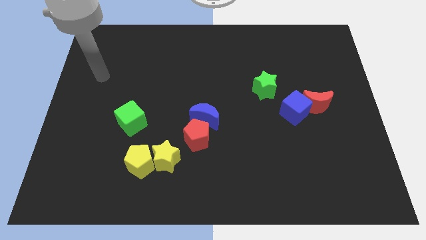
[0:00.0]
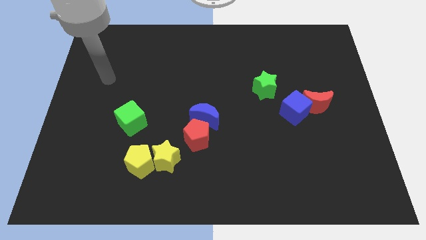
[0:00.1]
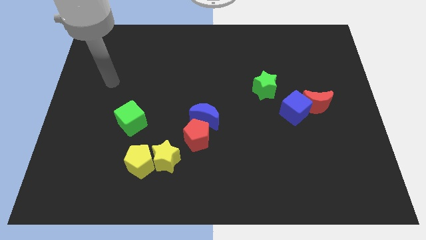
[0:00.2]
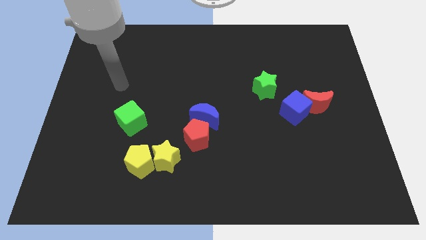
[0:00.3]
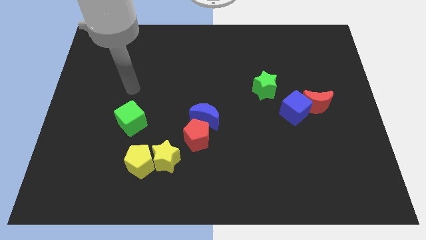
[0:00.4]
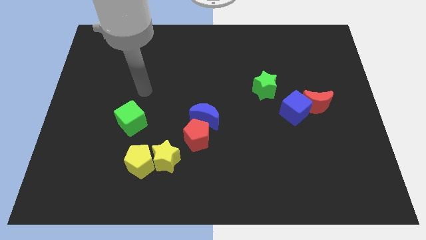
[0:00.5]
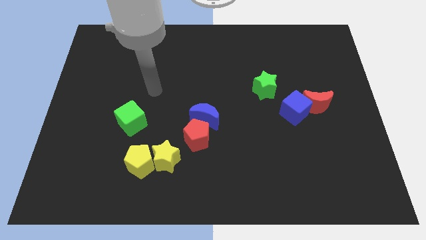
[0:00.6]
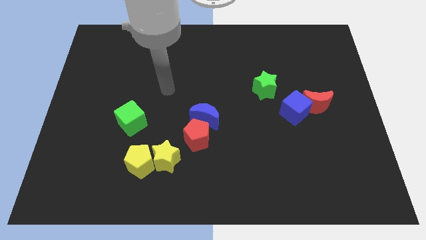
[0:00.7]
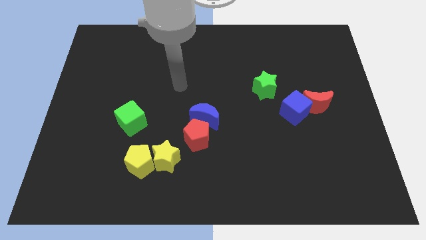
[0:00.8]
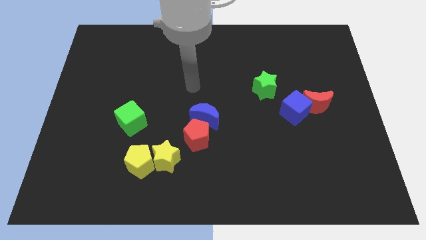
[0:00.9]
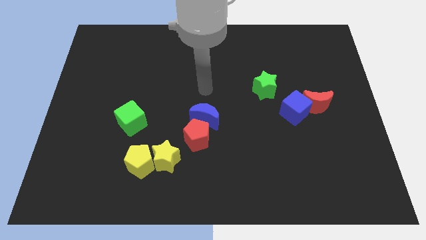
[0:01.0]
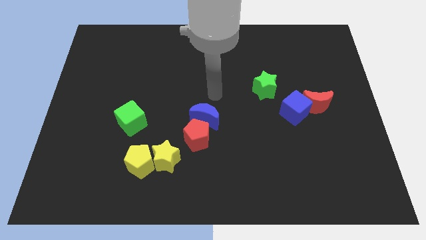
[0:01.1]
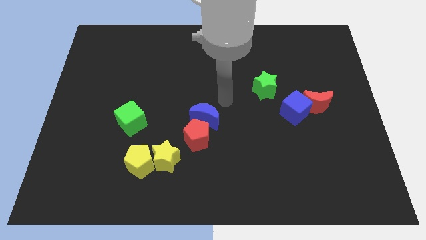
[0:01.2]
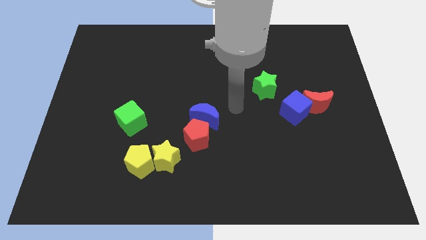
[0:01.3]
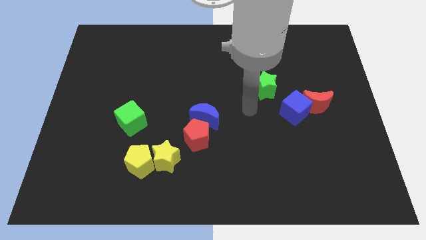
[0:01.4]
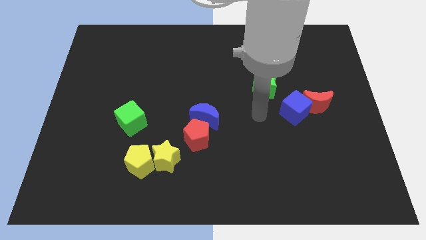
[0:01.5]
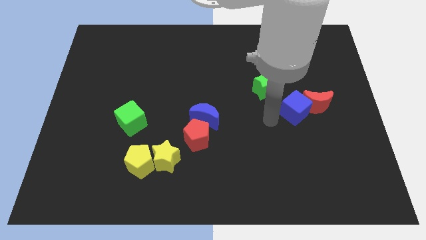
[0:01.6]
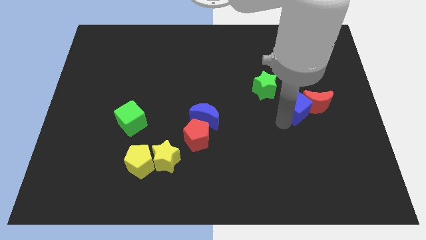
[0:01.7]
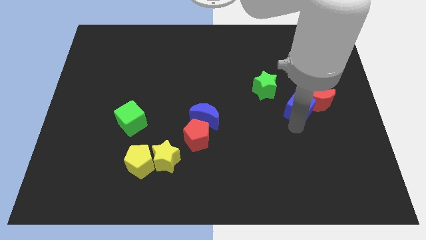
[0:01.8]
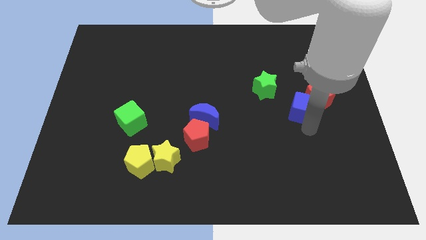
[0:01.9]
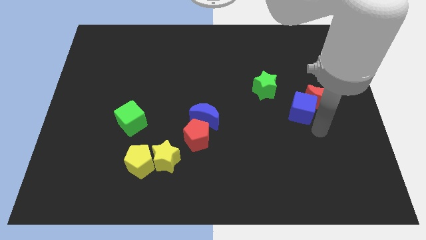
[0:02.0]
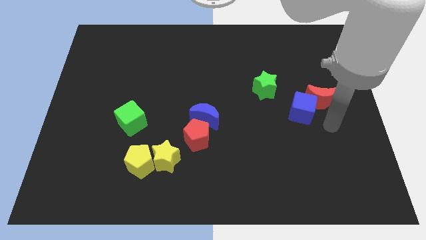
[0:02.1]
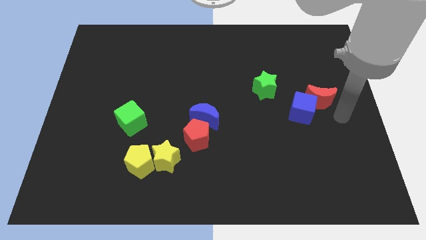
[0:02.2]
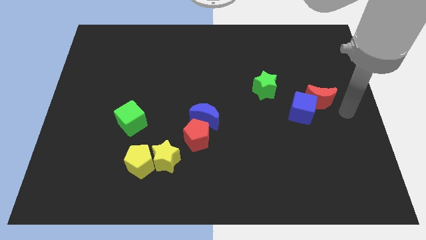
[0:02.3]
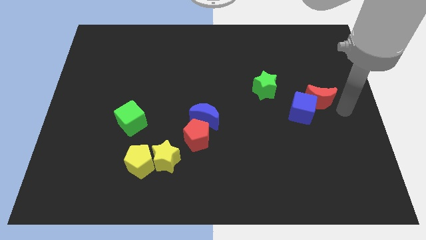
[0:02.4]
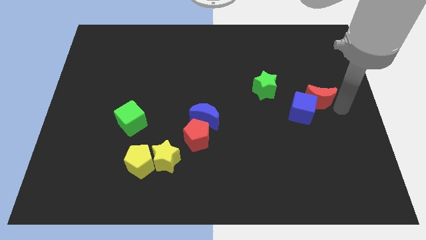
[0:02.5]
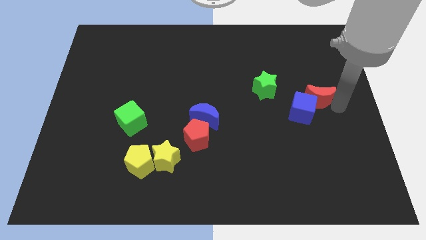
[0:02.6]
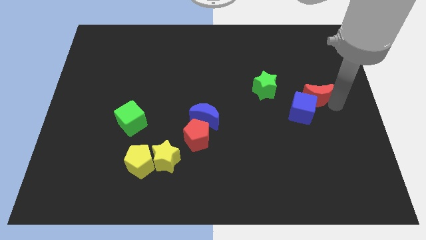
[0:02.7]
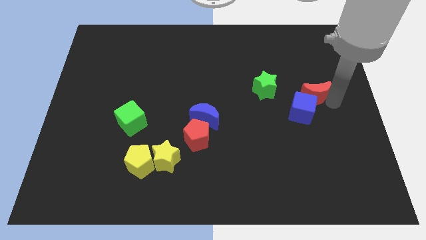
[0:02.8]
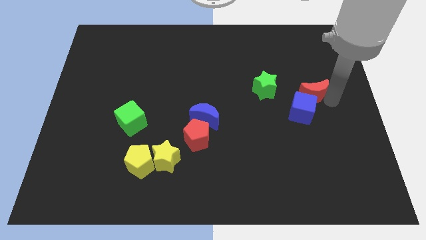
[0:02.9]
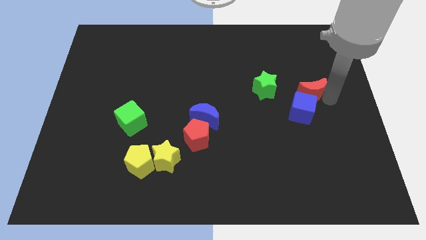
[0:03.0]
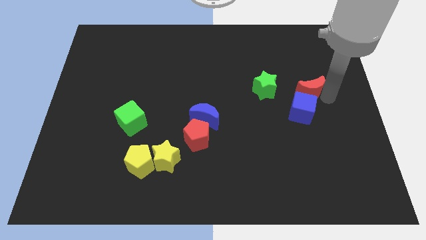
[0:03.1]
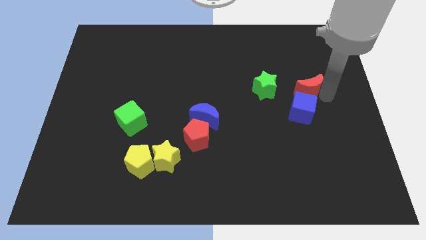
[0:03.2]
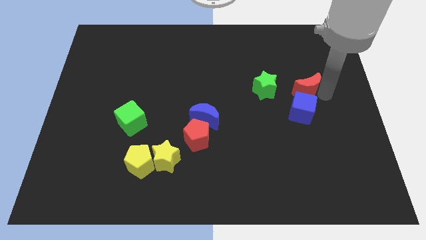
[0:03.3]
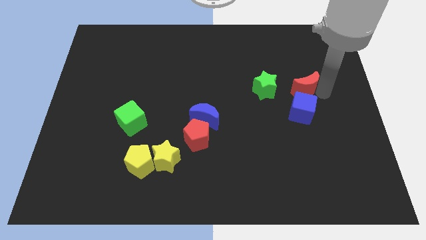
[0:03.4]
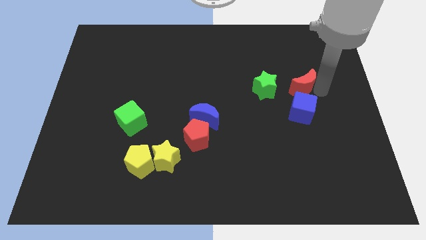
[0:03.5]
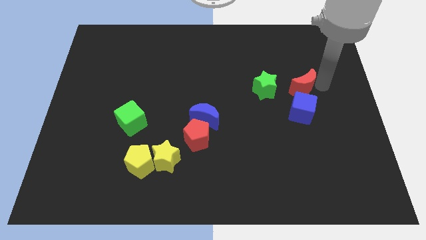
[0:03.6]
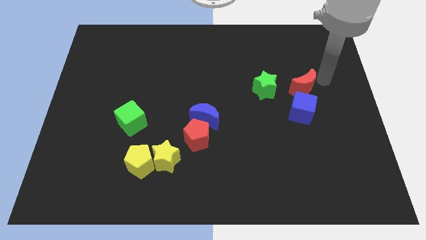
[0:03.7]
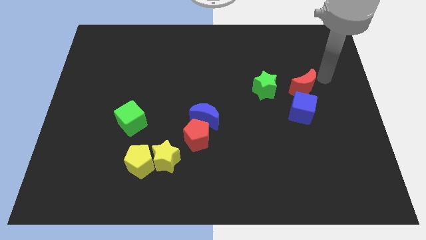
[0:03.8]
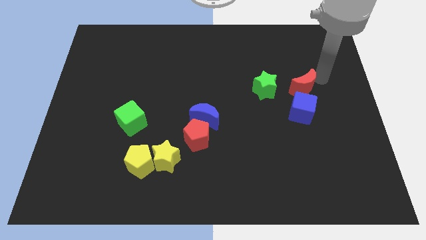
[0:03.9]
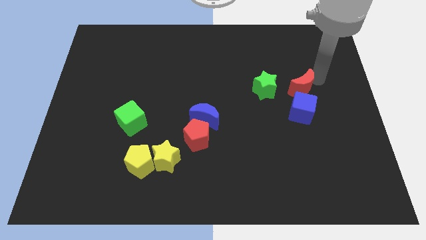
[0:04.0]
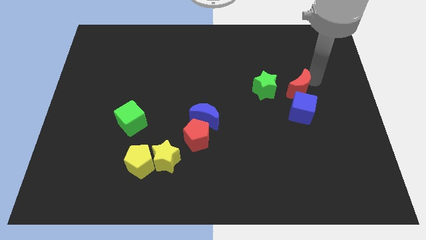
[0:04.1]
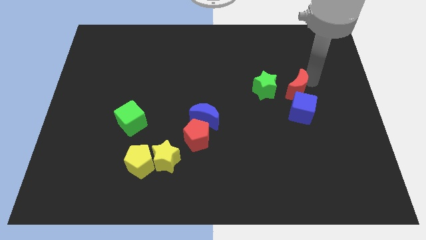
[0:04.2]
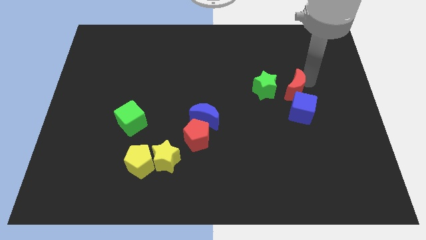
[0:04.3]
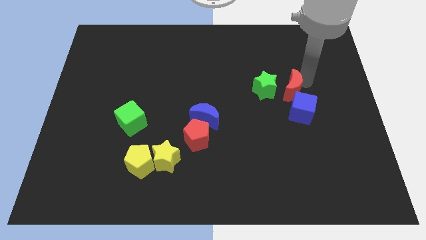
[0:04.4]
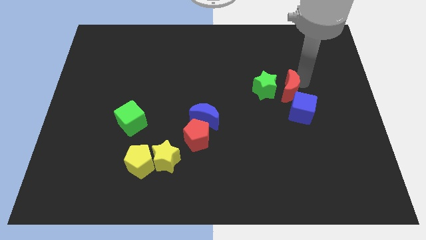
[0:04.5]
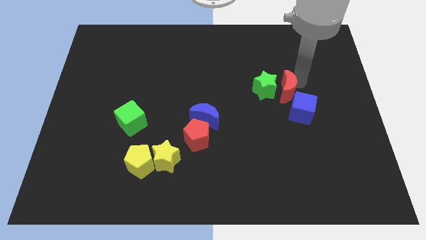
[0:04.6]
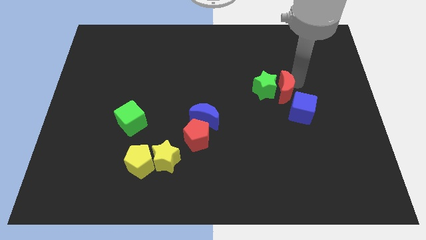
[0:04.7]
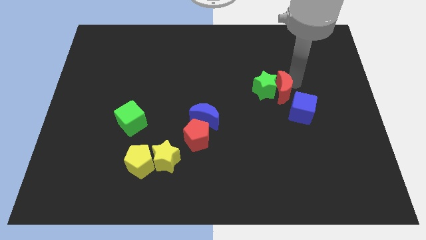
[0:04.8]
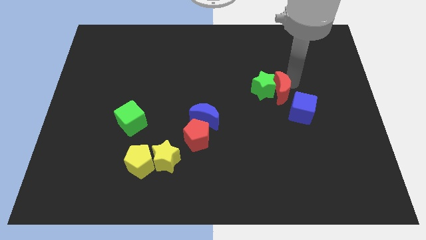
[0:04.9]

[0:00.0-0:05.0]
slide the red moon left a bit

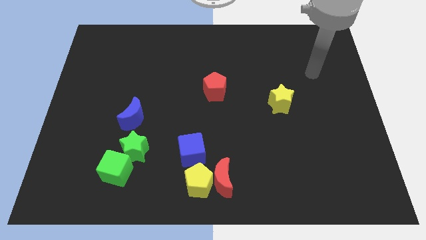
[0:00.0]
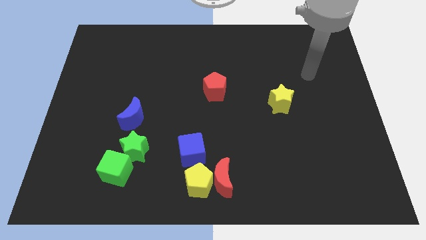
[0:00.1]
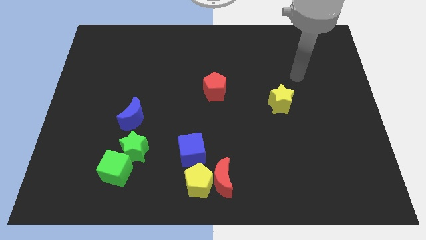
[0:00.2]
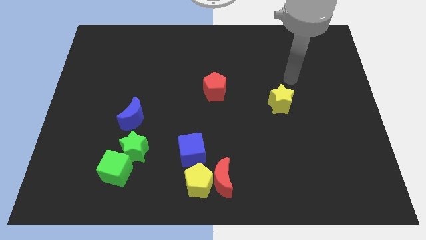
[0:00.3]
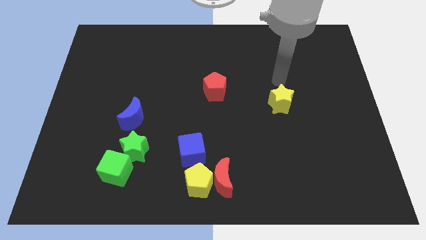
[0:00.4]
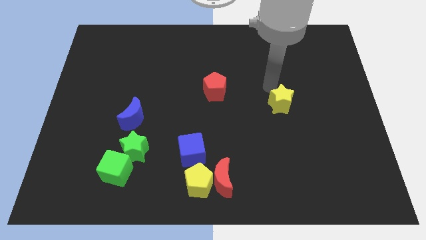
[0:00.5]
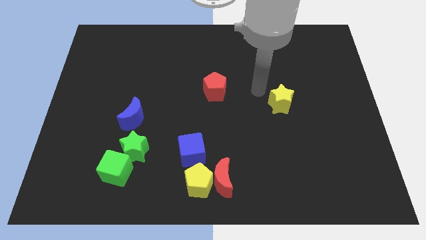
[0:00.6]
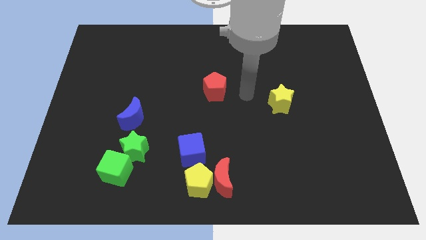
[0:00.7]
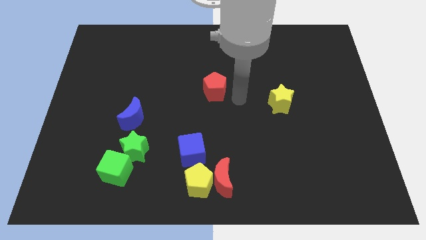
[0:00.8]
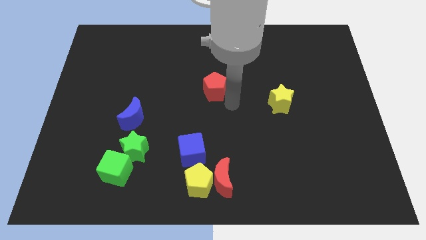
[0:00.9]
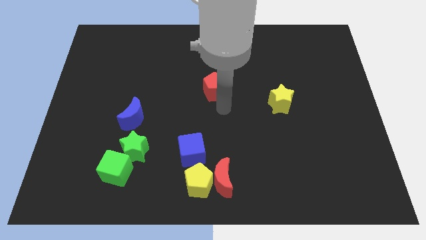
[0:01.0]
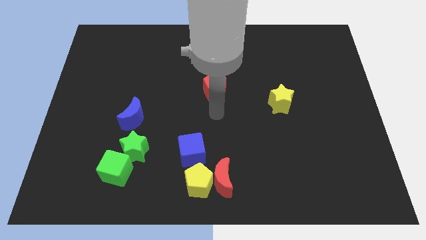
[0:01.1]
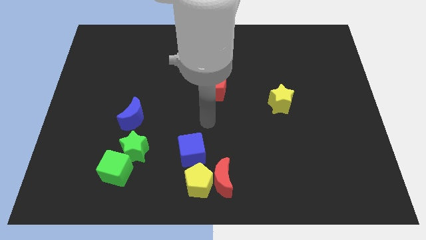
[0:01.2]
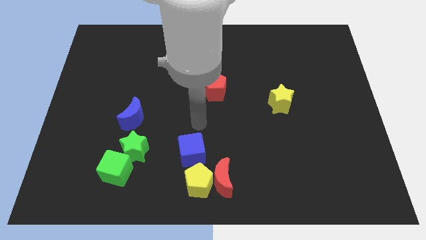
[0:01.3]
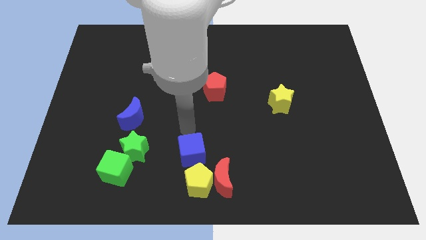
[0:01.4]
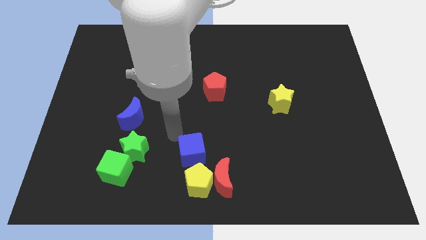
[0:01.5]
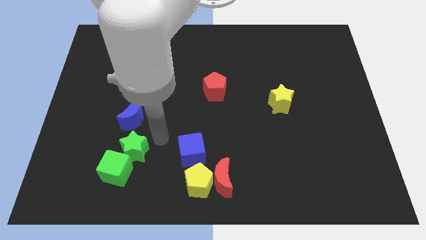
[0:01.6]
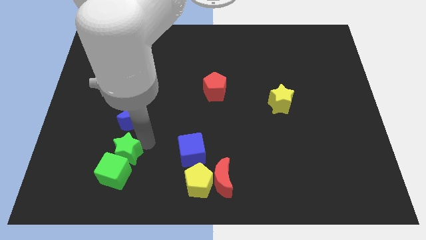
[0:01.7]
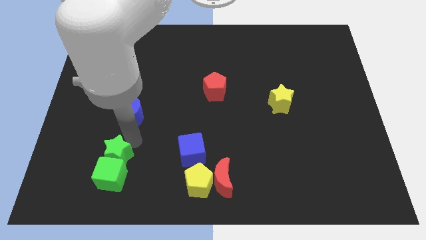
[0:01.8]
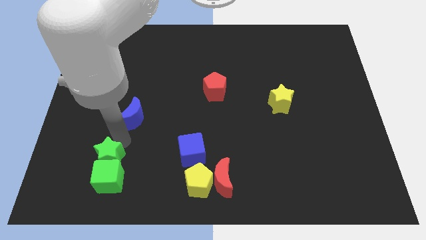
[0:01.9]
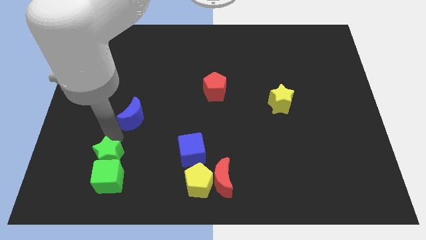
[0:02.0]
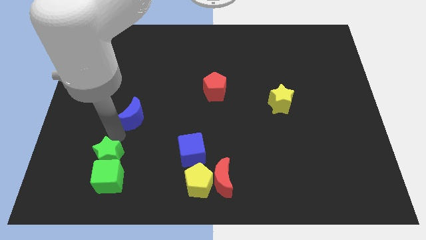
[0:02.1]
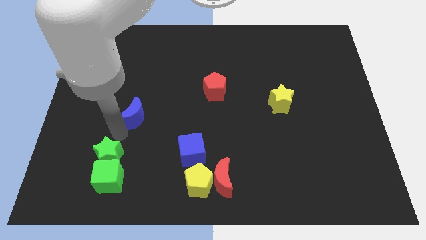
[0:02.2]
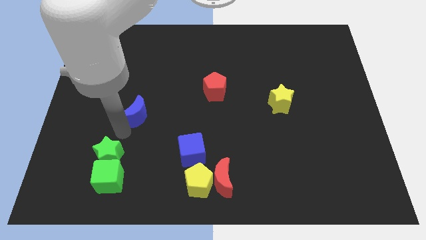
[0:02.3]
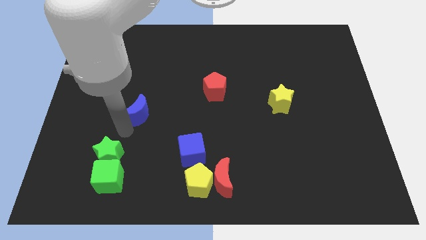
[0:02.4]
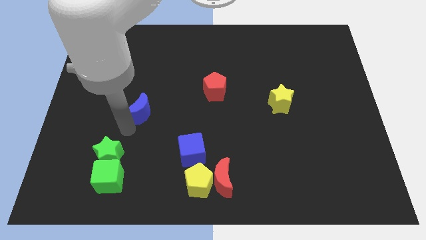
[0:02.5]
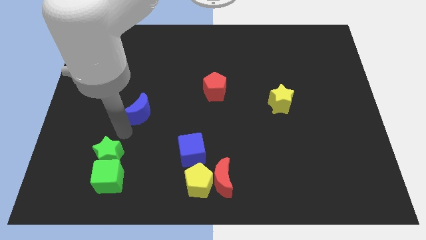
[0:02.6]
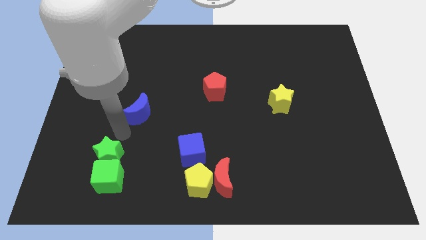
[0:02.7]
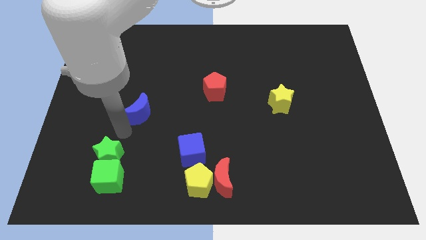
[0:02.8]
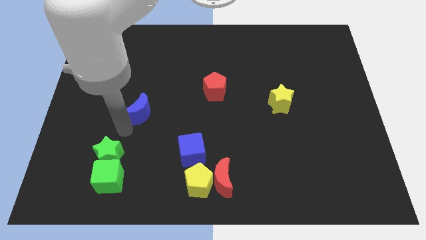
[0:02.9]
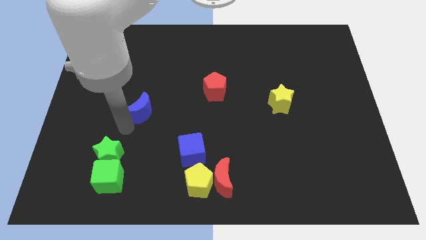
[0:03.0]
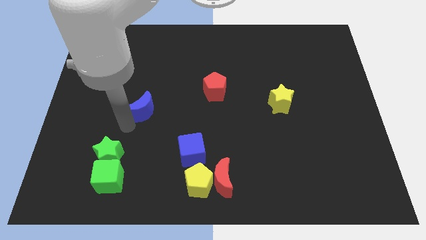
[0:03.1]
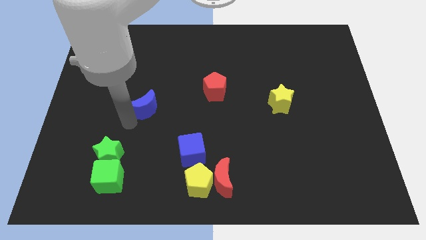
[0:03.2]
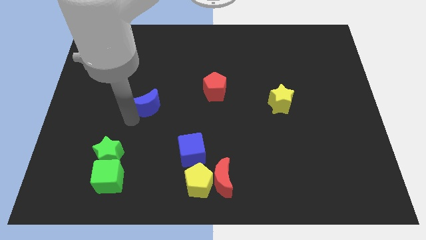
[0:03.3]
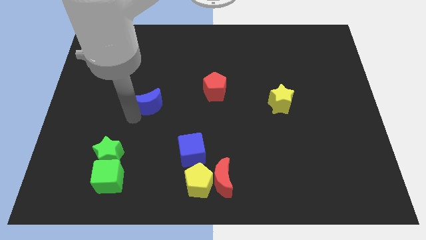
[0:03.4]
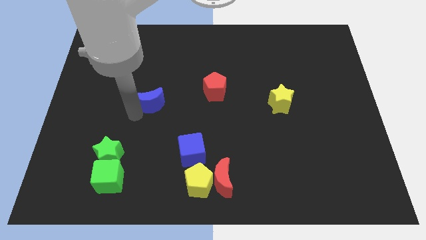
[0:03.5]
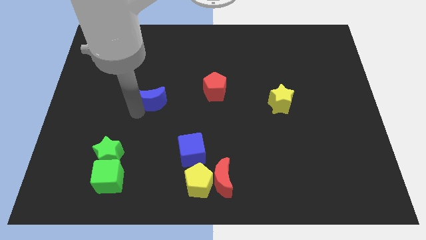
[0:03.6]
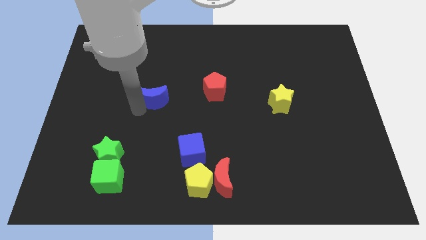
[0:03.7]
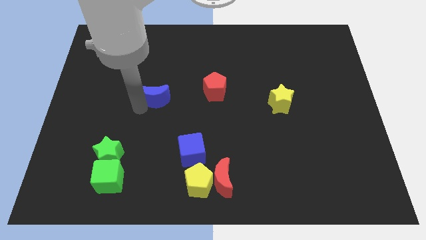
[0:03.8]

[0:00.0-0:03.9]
slide the blue moon a bit up and then to the right
